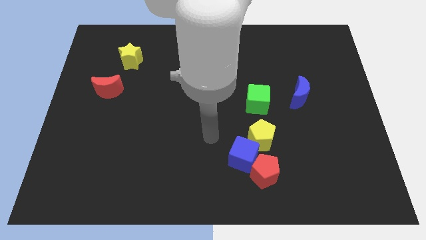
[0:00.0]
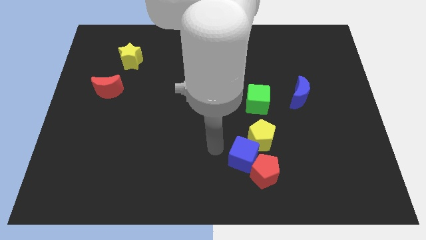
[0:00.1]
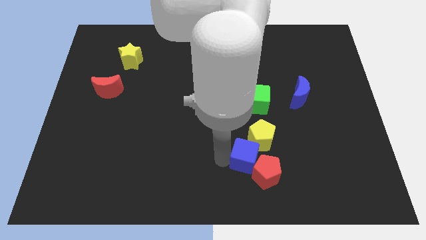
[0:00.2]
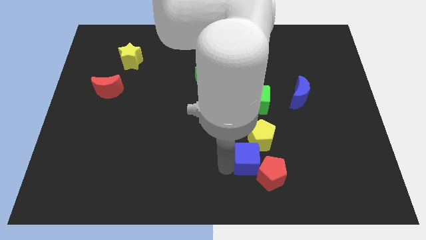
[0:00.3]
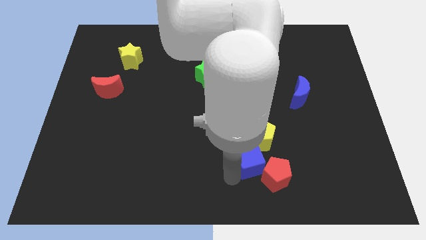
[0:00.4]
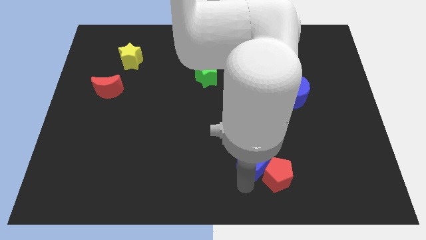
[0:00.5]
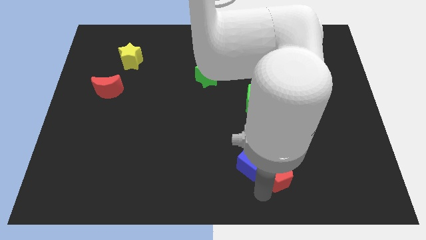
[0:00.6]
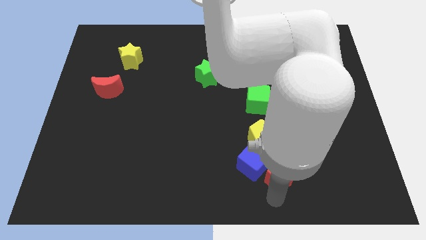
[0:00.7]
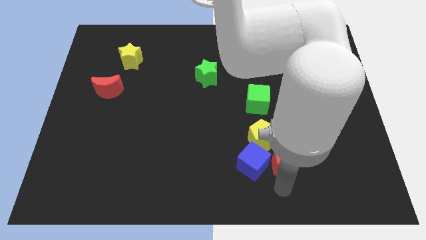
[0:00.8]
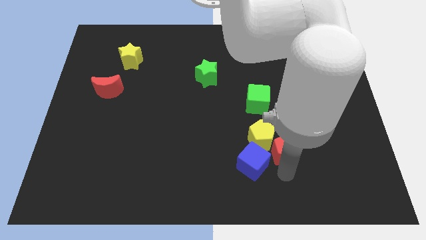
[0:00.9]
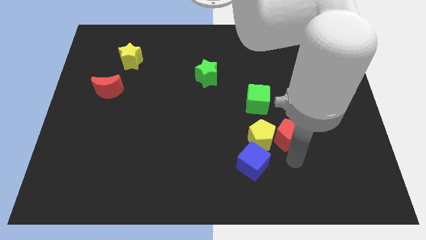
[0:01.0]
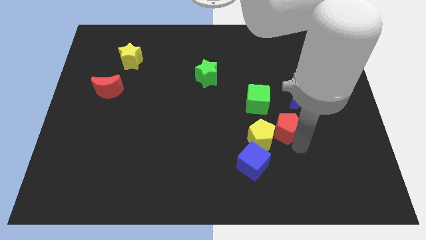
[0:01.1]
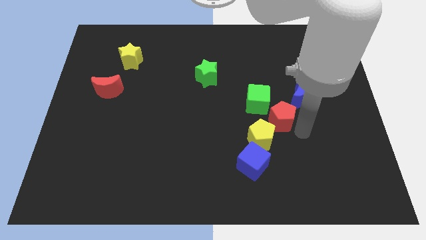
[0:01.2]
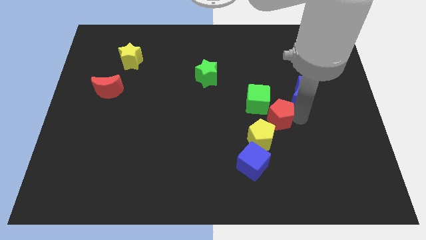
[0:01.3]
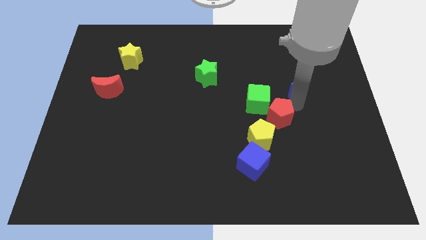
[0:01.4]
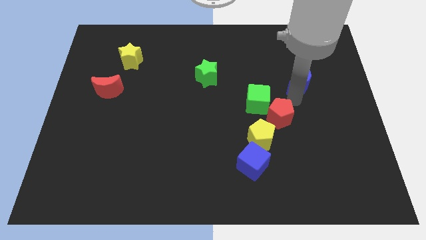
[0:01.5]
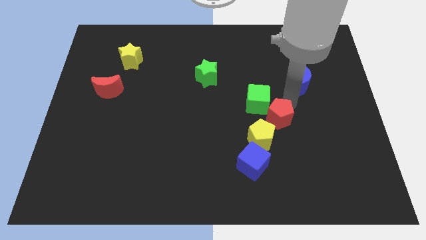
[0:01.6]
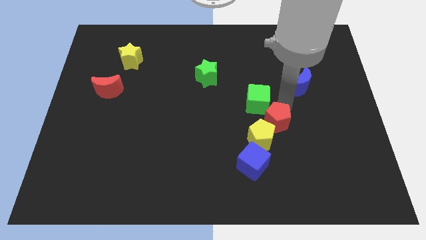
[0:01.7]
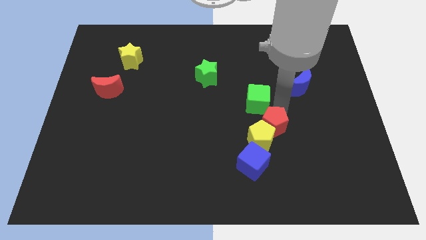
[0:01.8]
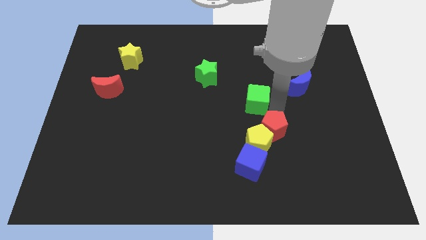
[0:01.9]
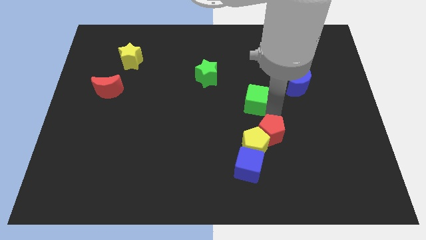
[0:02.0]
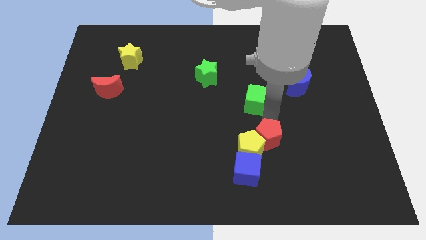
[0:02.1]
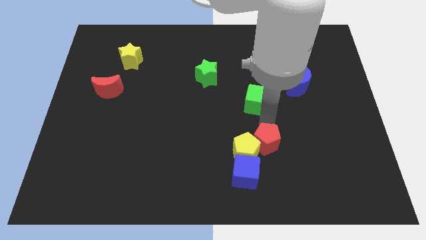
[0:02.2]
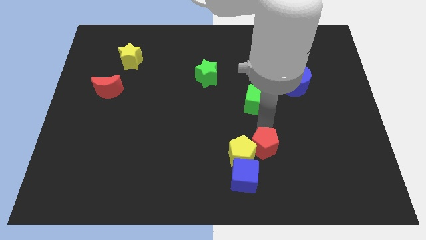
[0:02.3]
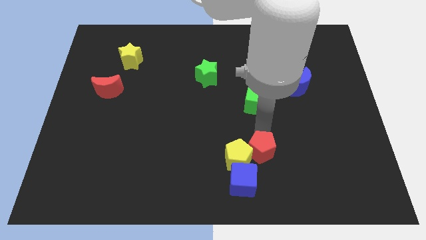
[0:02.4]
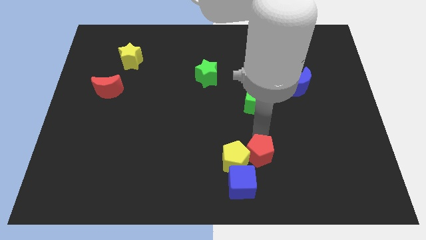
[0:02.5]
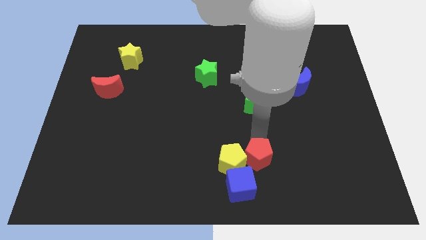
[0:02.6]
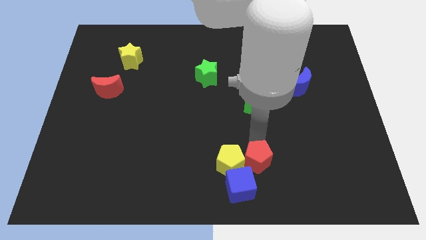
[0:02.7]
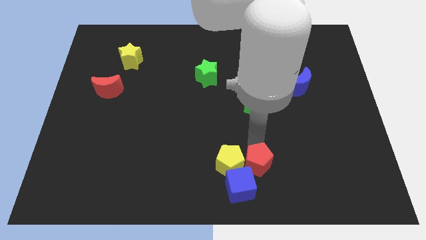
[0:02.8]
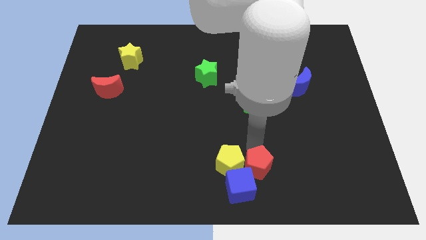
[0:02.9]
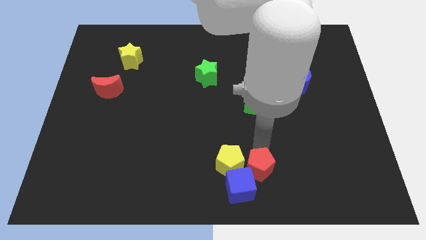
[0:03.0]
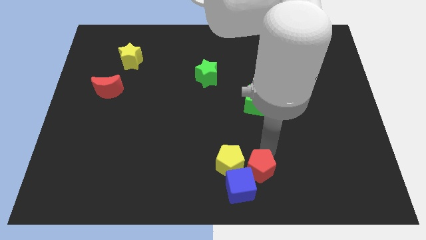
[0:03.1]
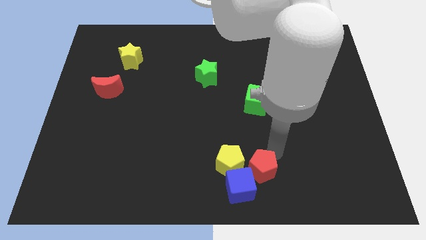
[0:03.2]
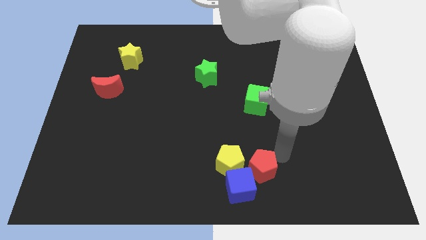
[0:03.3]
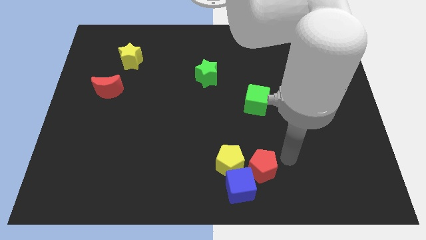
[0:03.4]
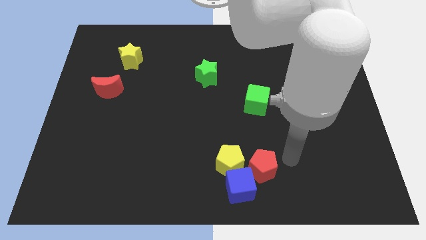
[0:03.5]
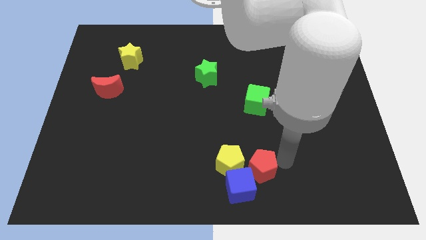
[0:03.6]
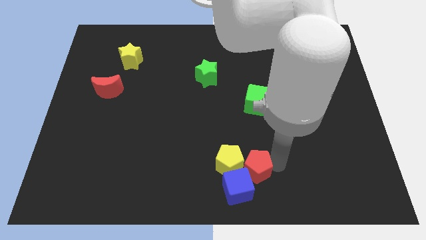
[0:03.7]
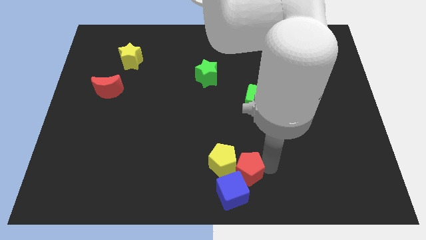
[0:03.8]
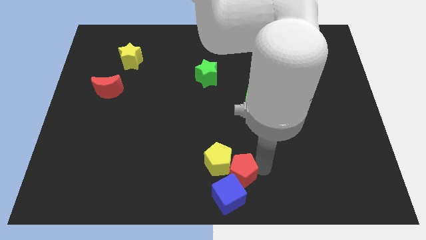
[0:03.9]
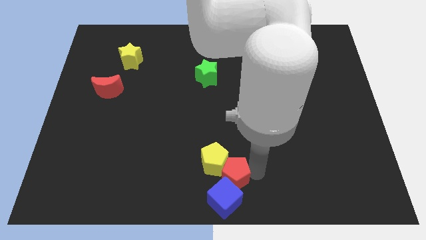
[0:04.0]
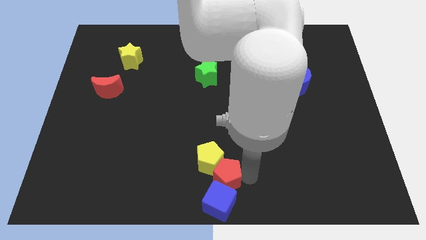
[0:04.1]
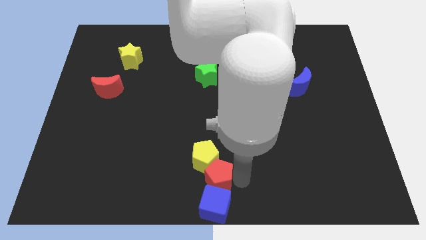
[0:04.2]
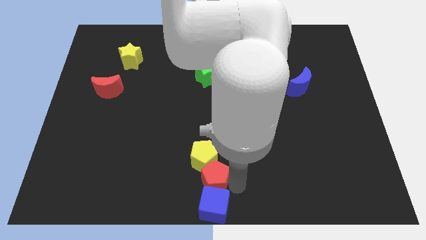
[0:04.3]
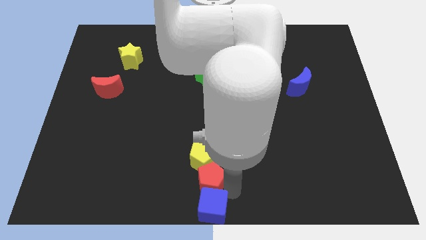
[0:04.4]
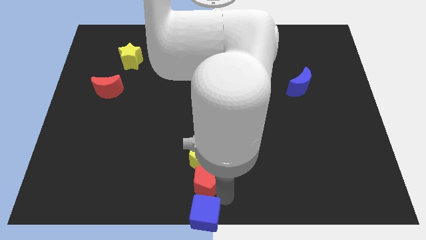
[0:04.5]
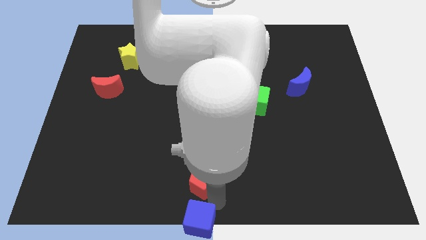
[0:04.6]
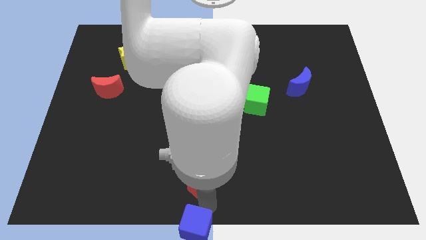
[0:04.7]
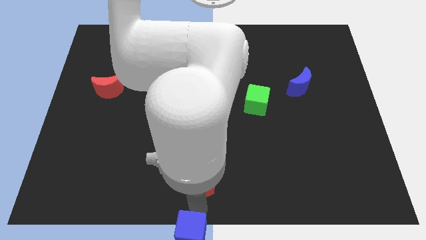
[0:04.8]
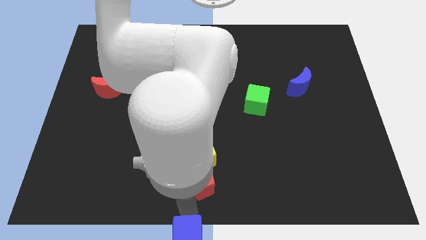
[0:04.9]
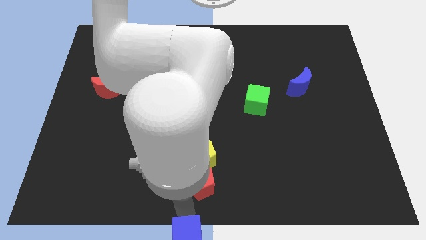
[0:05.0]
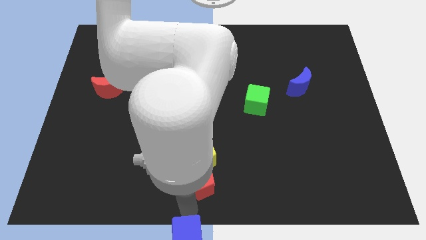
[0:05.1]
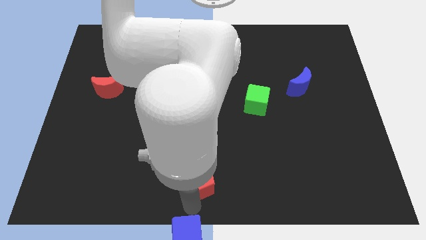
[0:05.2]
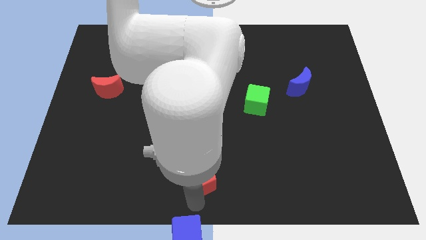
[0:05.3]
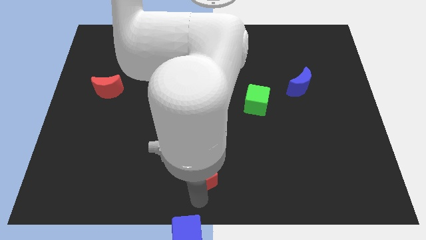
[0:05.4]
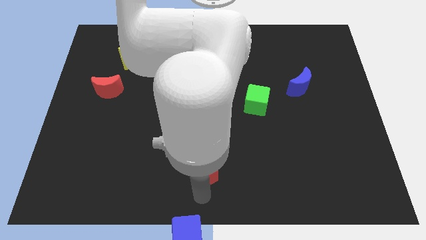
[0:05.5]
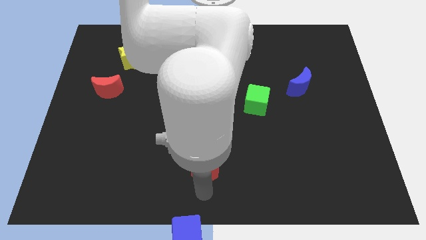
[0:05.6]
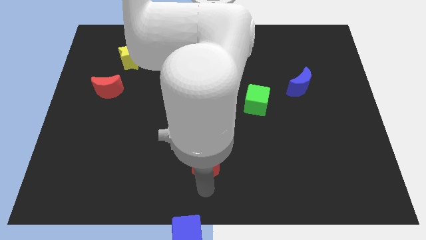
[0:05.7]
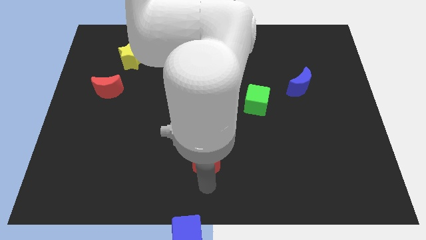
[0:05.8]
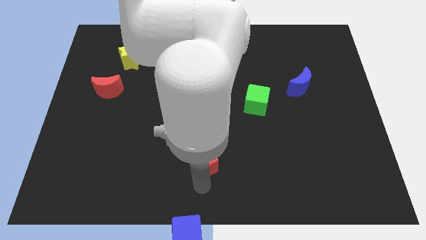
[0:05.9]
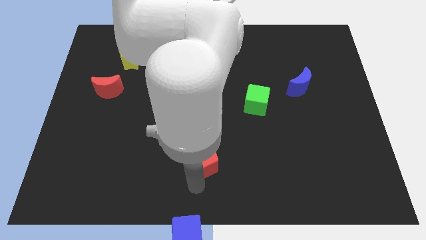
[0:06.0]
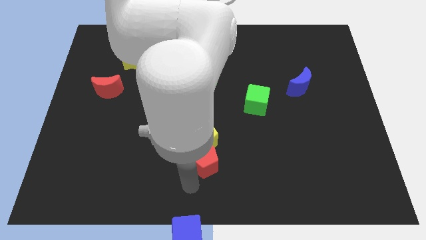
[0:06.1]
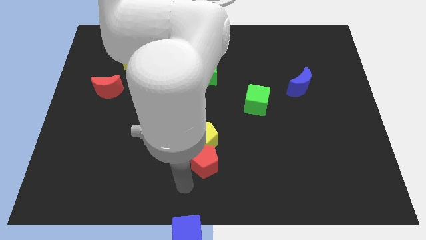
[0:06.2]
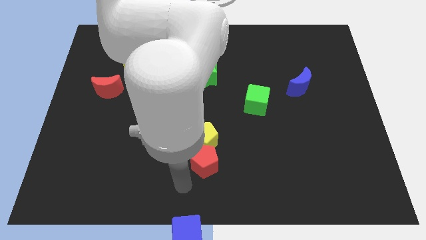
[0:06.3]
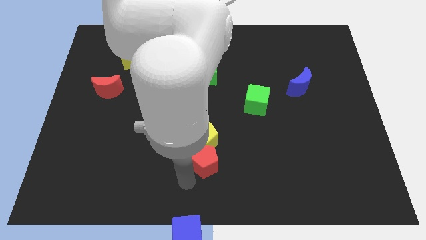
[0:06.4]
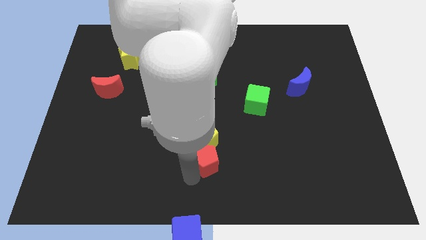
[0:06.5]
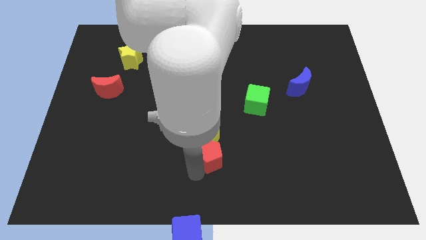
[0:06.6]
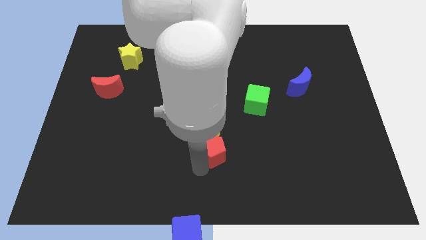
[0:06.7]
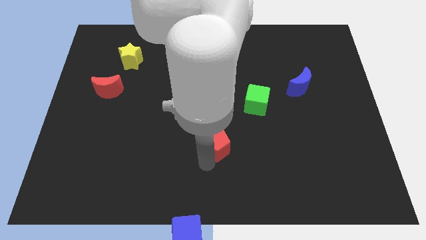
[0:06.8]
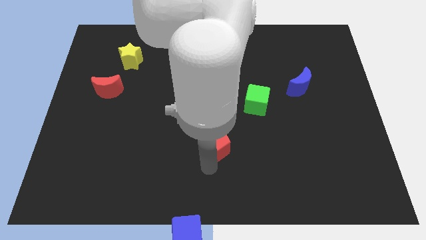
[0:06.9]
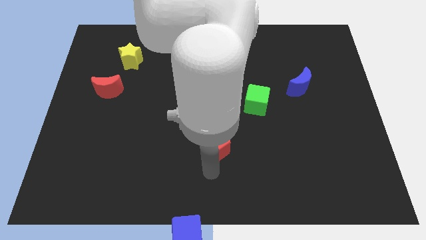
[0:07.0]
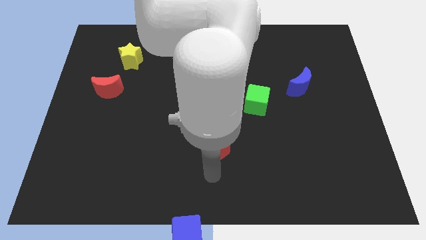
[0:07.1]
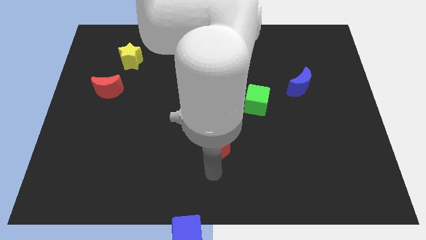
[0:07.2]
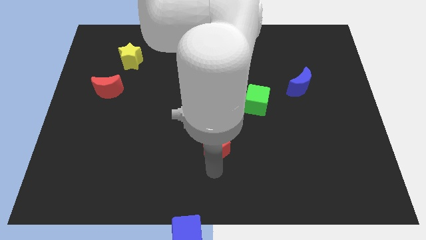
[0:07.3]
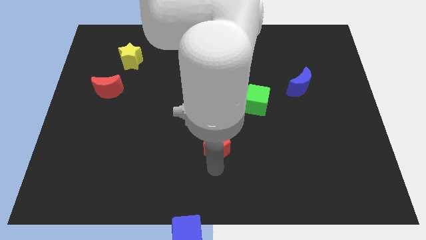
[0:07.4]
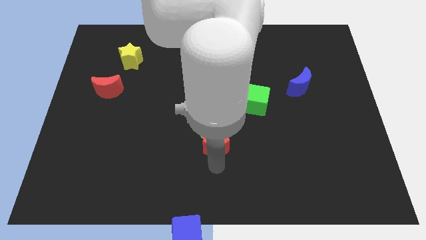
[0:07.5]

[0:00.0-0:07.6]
move the red pentagon to the middle
